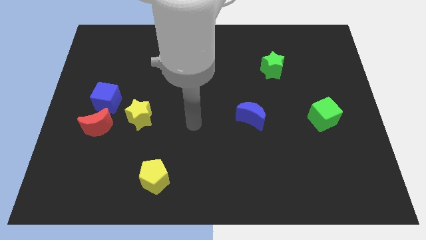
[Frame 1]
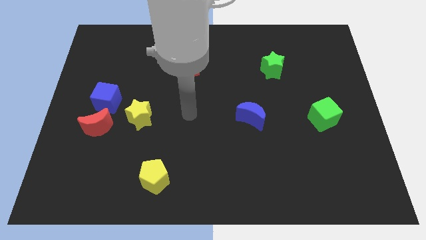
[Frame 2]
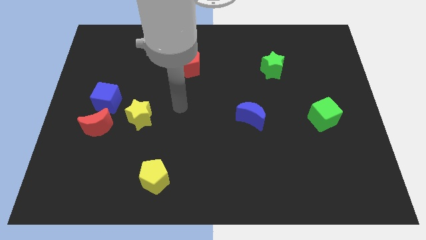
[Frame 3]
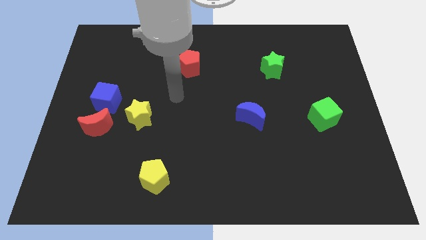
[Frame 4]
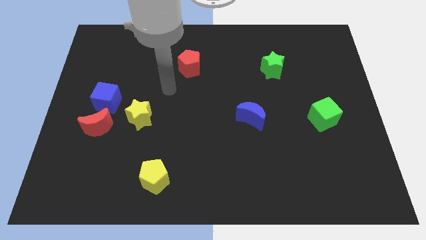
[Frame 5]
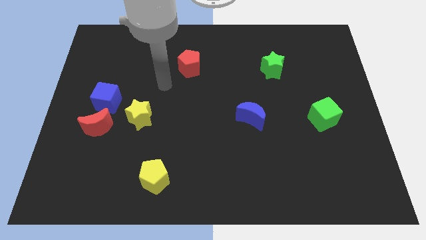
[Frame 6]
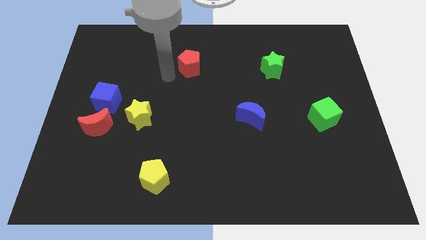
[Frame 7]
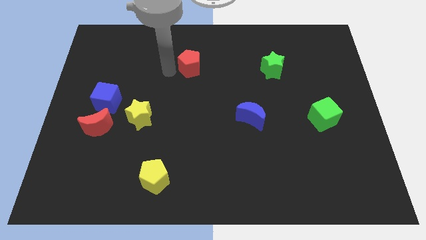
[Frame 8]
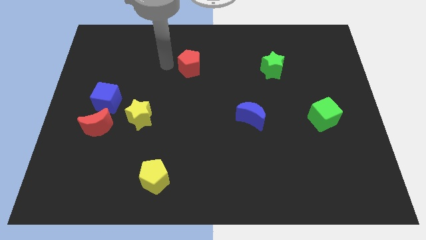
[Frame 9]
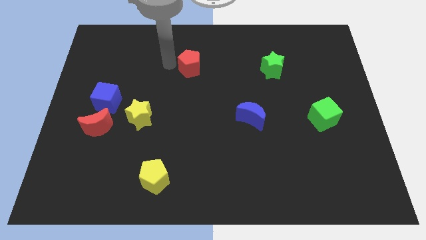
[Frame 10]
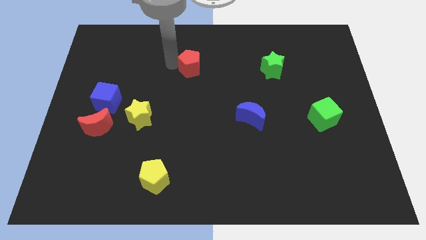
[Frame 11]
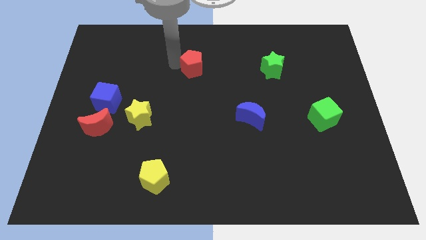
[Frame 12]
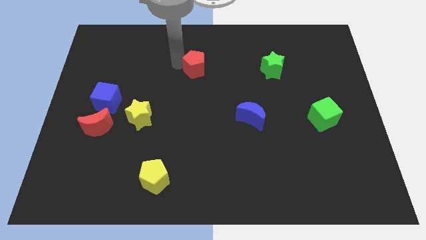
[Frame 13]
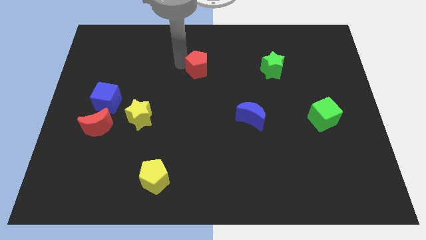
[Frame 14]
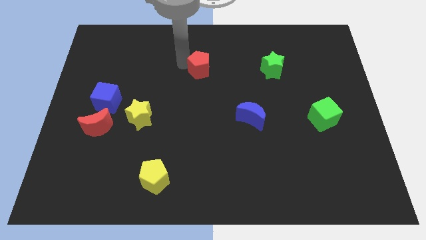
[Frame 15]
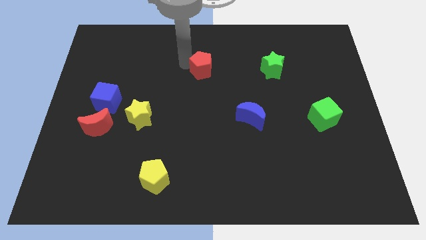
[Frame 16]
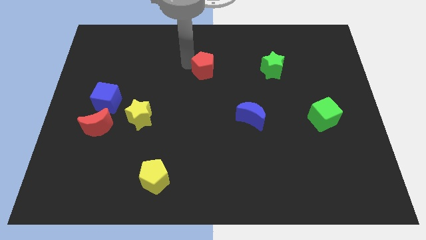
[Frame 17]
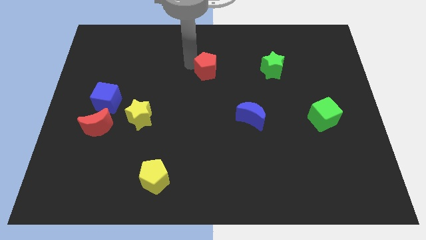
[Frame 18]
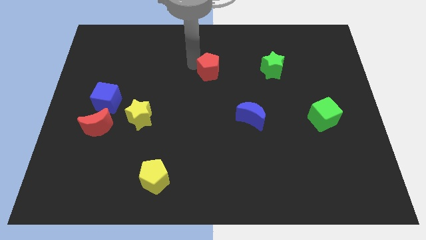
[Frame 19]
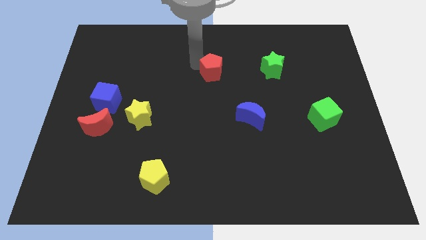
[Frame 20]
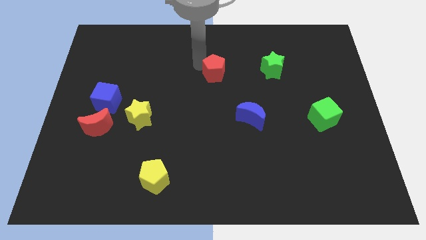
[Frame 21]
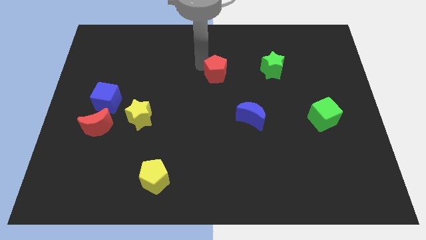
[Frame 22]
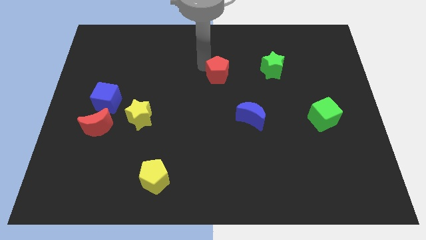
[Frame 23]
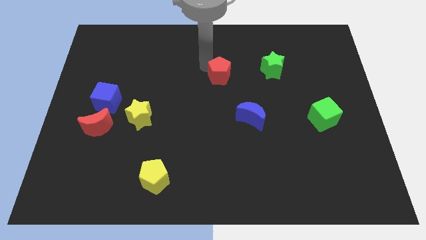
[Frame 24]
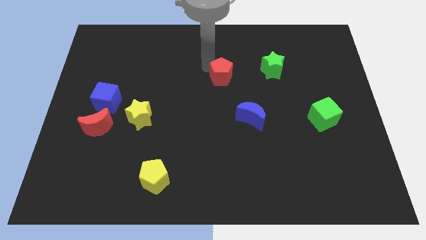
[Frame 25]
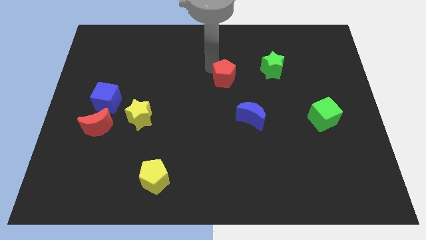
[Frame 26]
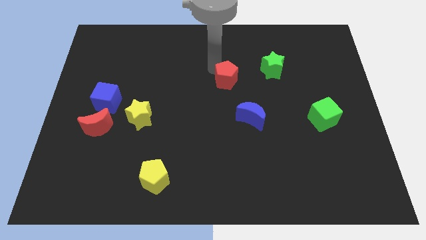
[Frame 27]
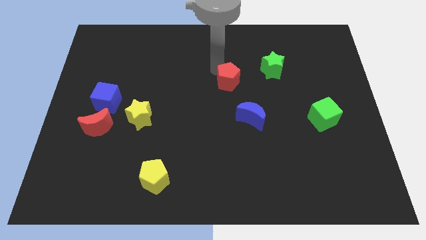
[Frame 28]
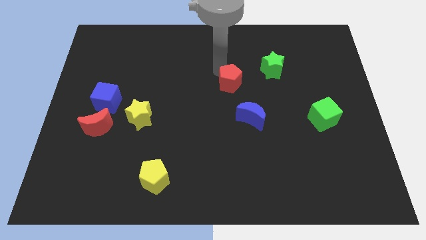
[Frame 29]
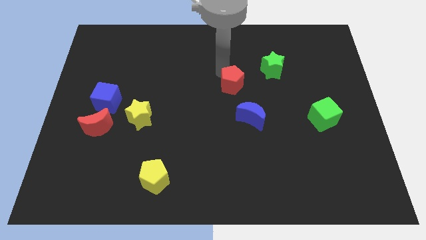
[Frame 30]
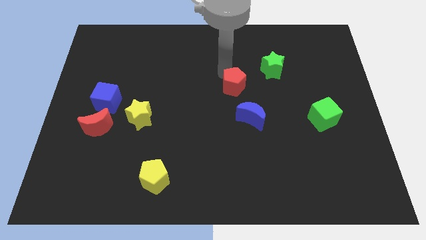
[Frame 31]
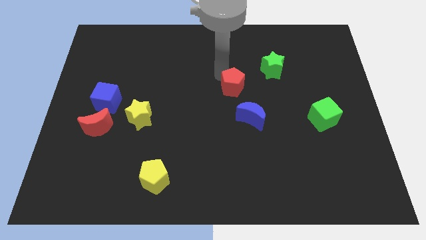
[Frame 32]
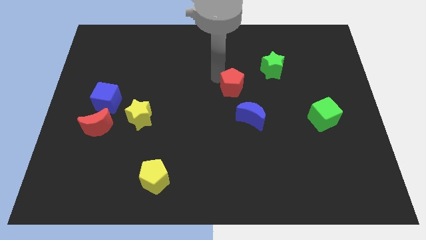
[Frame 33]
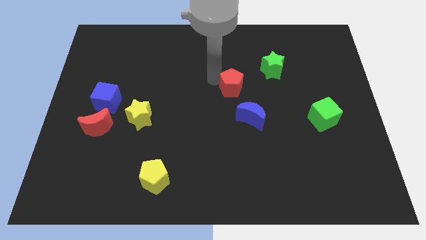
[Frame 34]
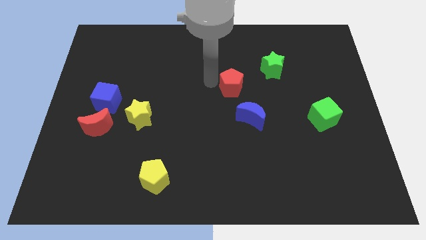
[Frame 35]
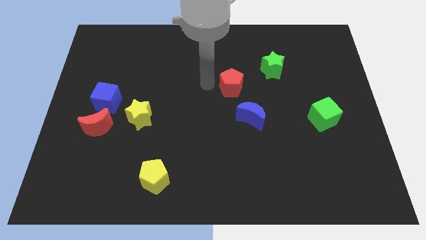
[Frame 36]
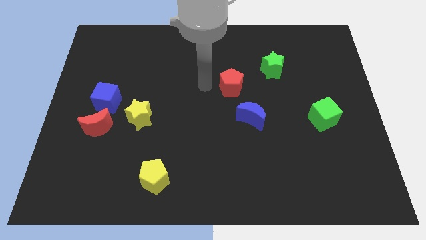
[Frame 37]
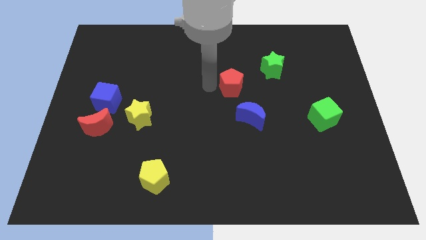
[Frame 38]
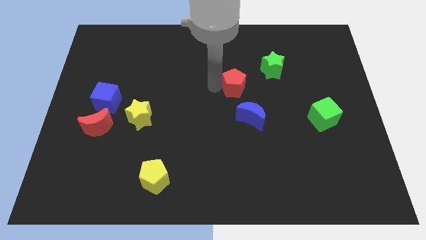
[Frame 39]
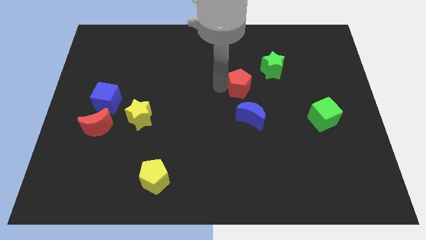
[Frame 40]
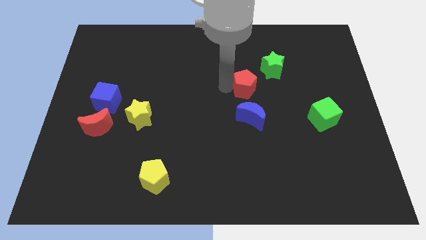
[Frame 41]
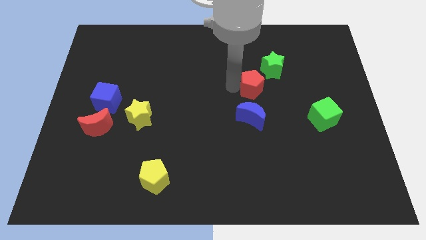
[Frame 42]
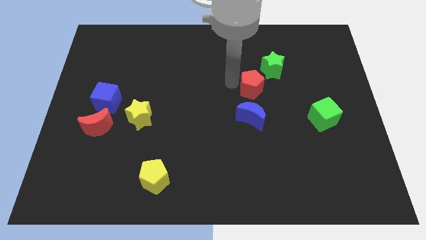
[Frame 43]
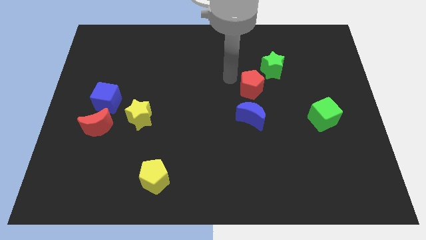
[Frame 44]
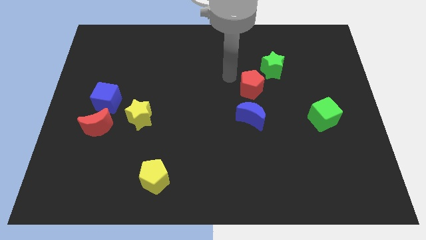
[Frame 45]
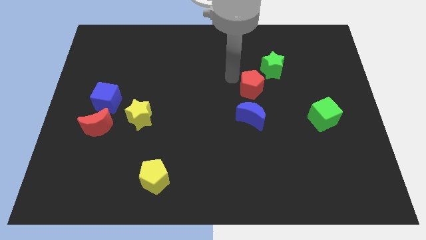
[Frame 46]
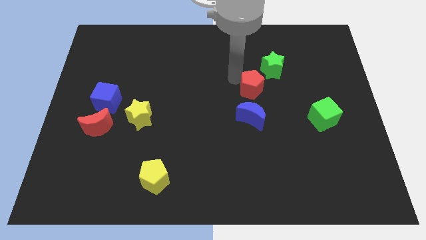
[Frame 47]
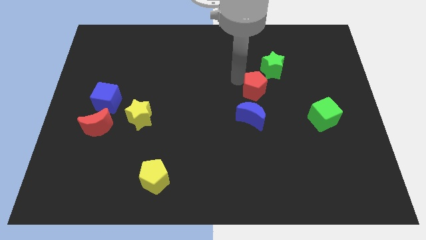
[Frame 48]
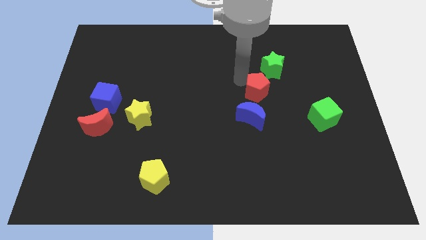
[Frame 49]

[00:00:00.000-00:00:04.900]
put the red pentagon diagonally up and to the right of the blue moon

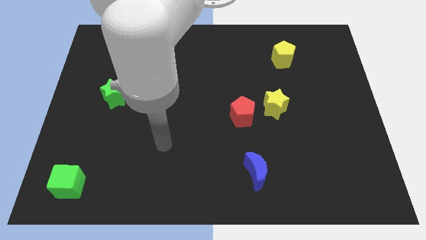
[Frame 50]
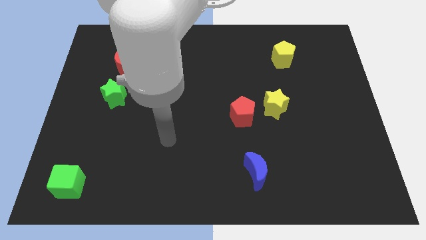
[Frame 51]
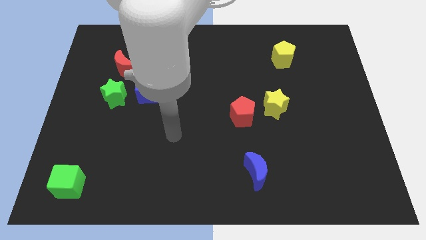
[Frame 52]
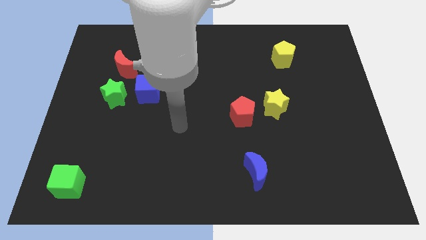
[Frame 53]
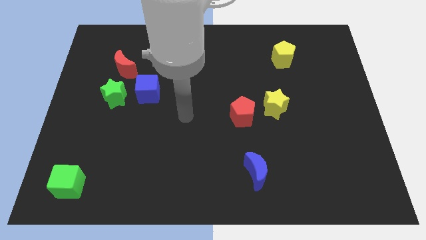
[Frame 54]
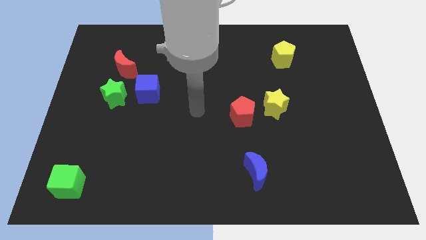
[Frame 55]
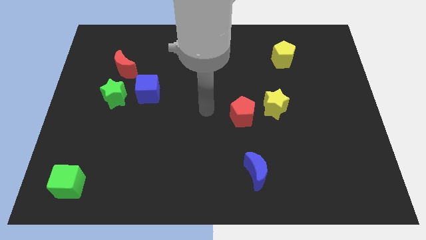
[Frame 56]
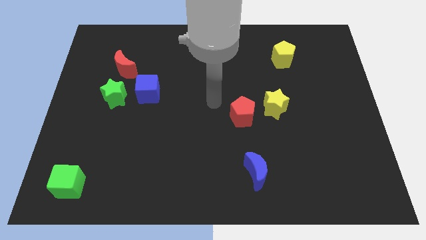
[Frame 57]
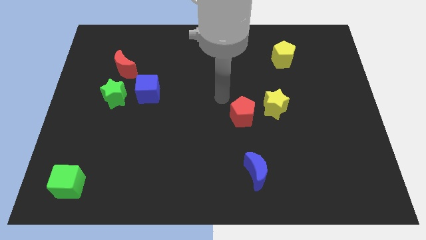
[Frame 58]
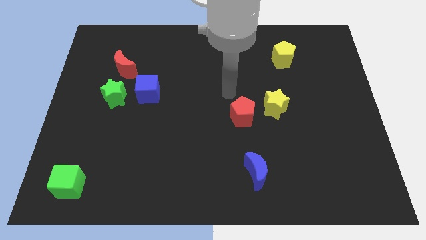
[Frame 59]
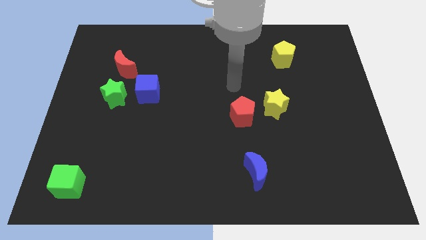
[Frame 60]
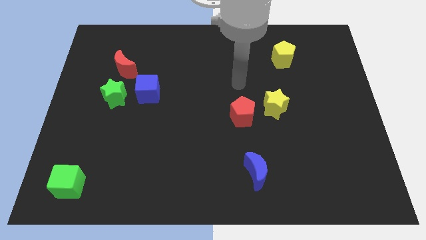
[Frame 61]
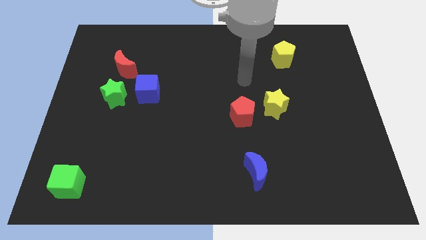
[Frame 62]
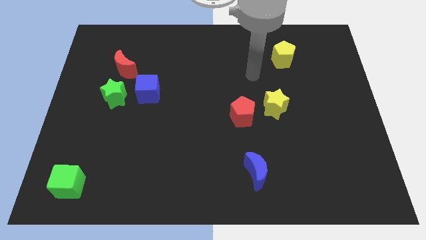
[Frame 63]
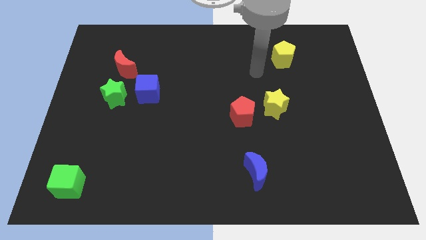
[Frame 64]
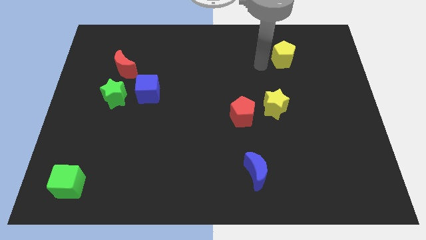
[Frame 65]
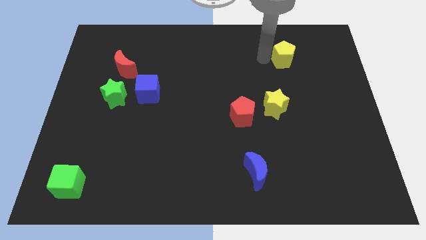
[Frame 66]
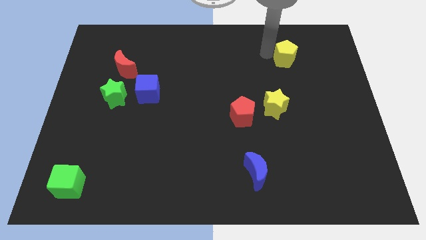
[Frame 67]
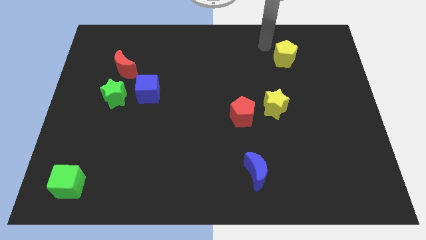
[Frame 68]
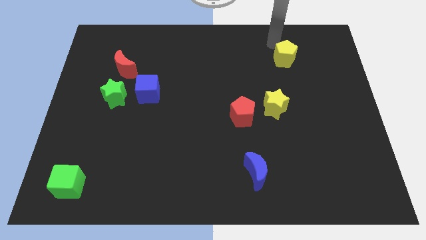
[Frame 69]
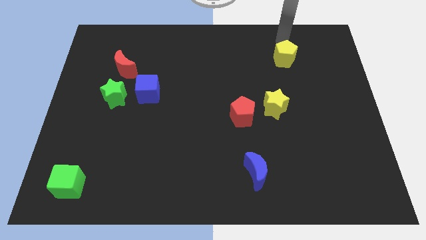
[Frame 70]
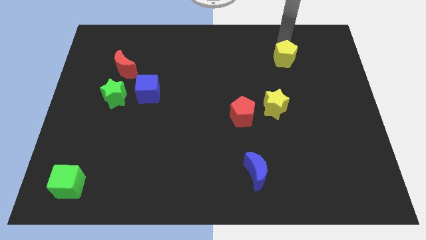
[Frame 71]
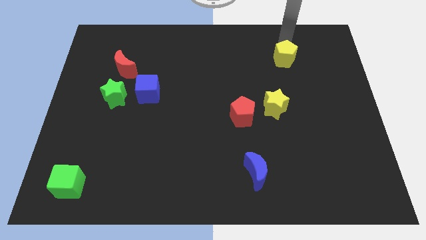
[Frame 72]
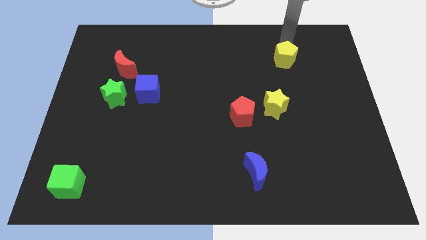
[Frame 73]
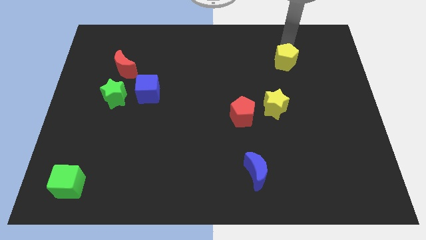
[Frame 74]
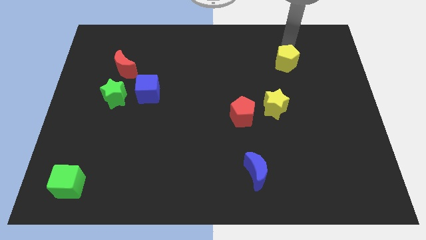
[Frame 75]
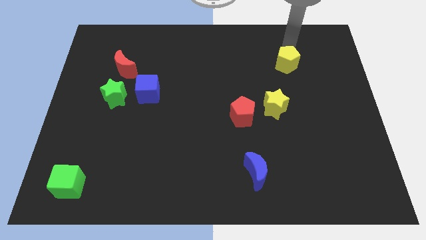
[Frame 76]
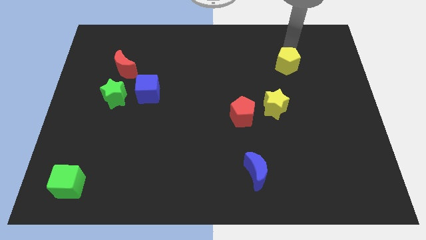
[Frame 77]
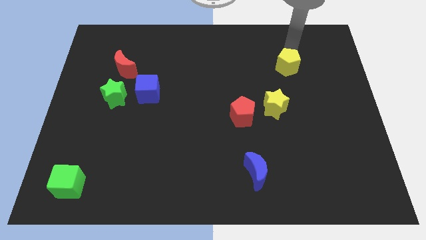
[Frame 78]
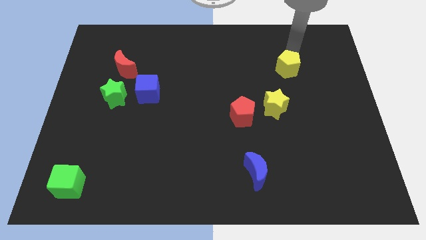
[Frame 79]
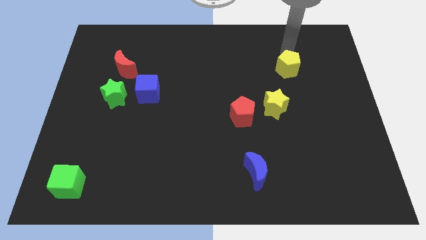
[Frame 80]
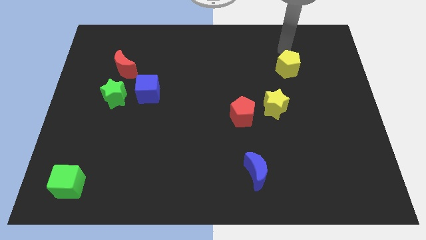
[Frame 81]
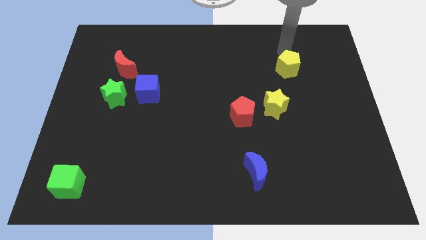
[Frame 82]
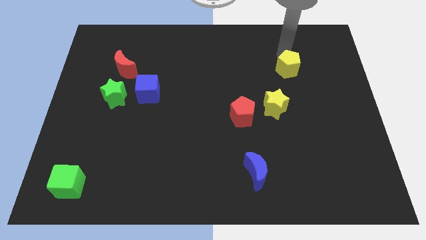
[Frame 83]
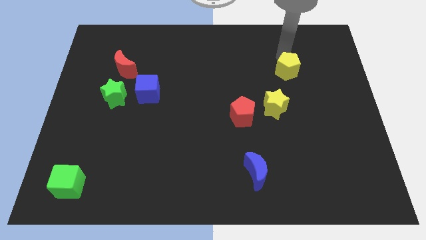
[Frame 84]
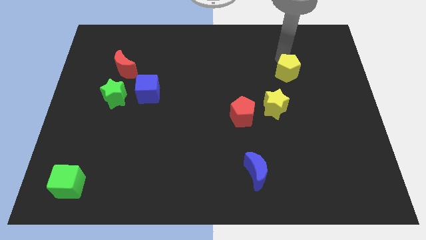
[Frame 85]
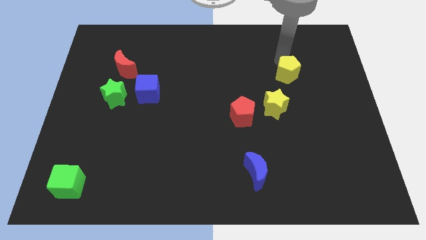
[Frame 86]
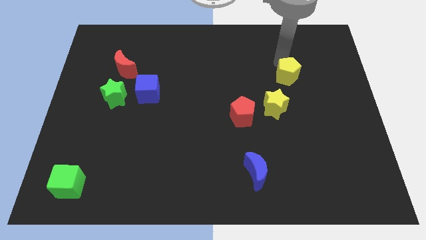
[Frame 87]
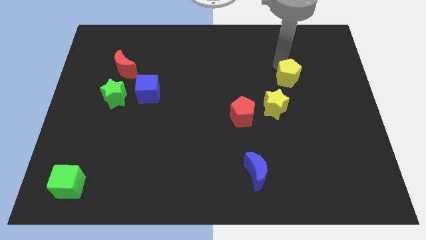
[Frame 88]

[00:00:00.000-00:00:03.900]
put the yellow pentagon to the top right side of the yellow star
